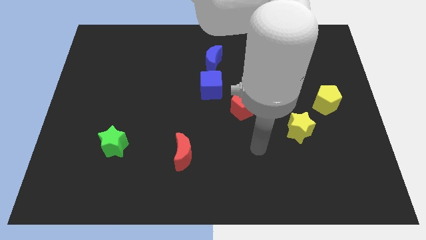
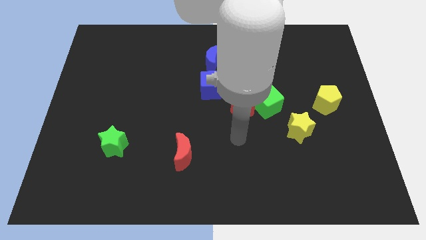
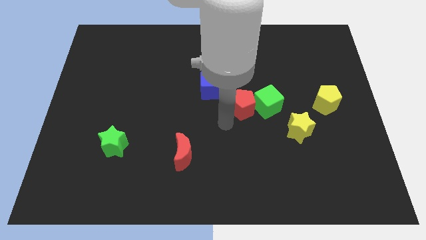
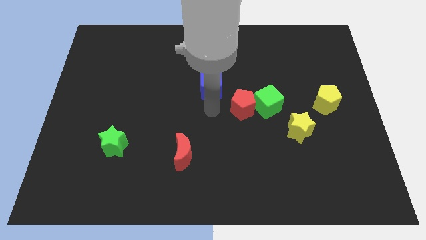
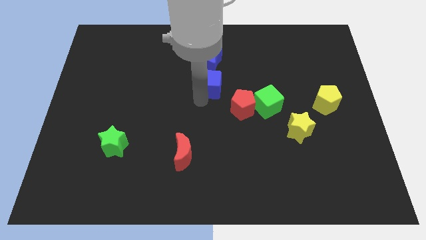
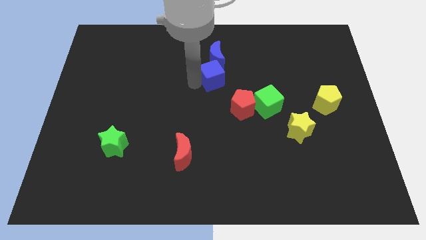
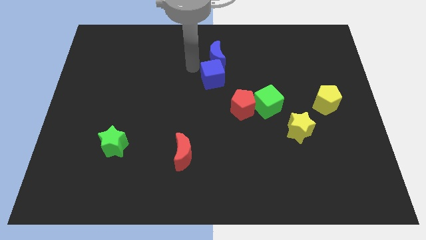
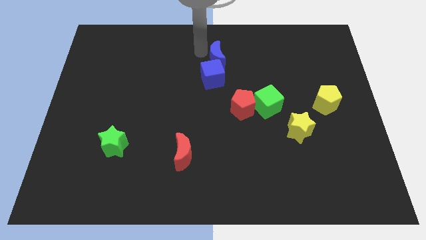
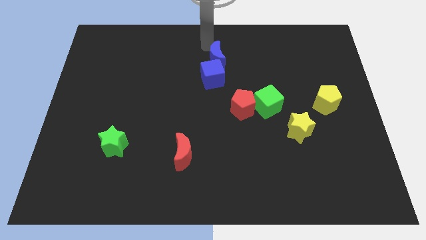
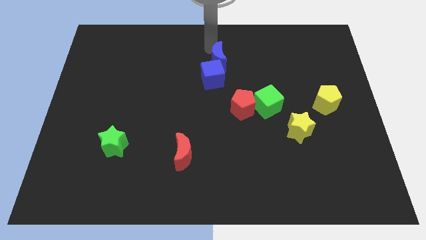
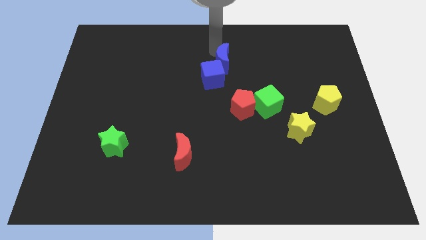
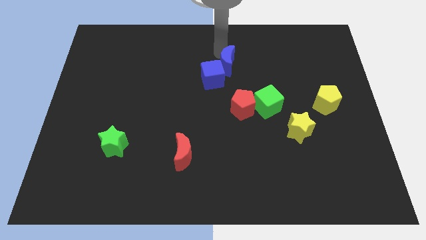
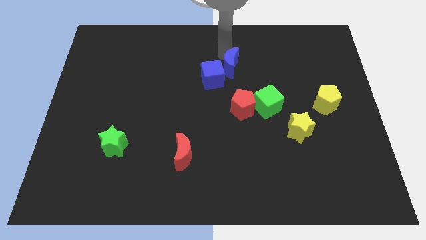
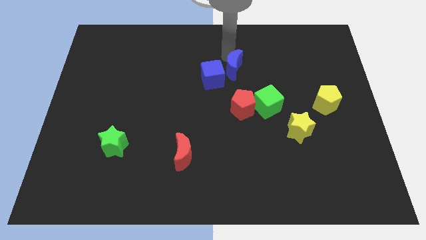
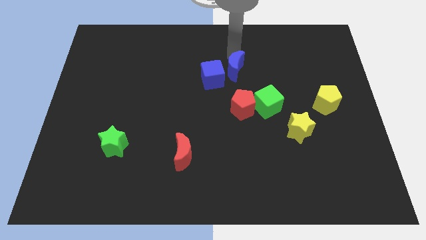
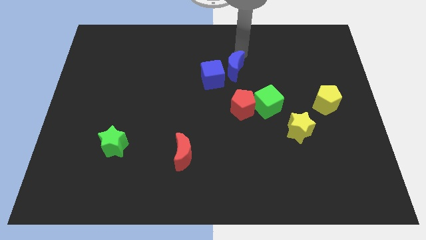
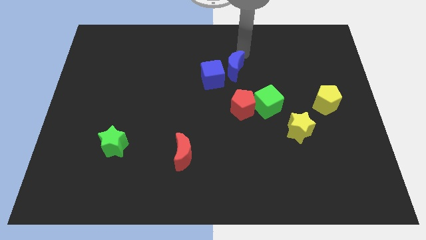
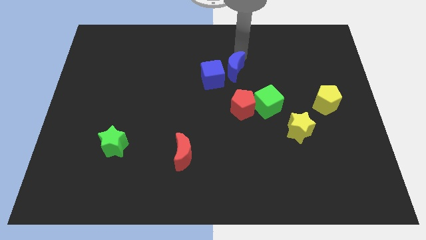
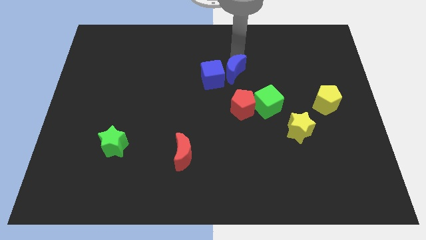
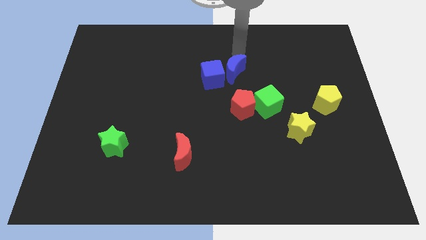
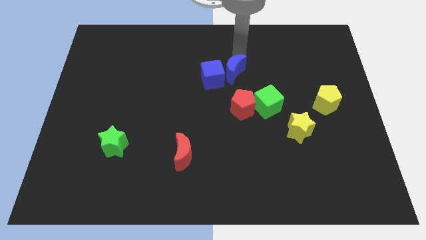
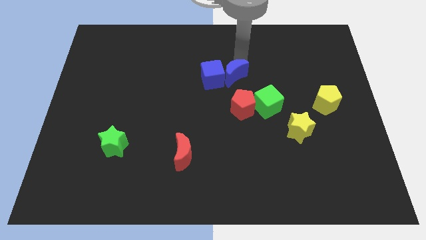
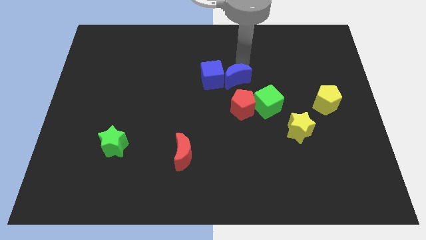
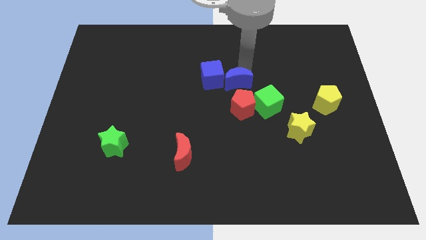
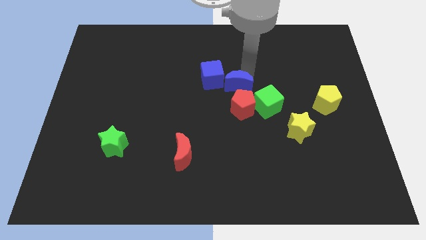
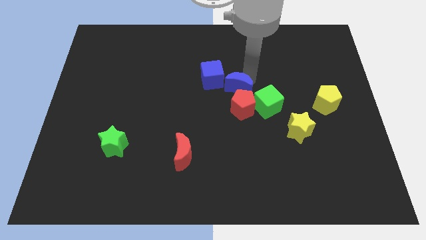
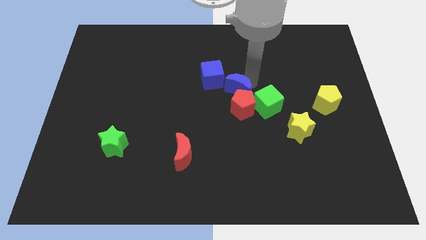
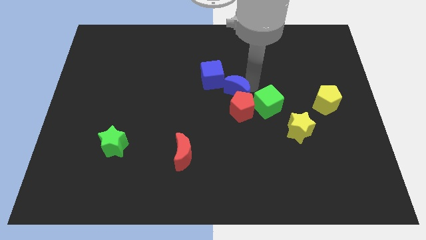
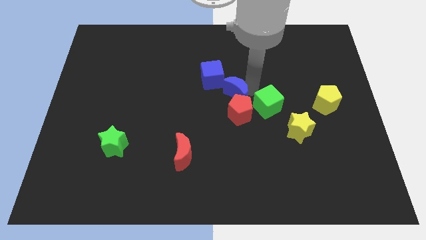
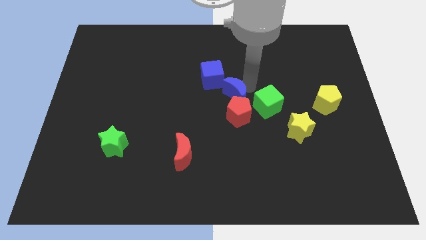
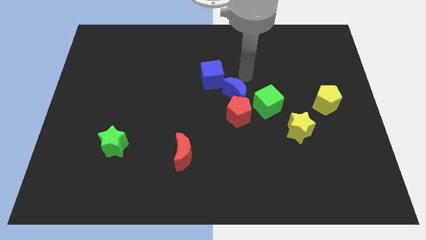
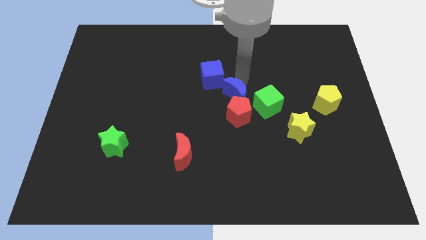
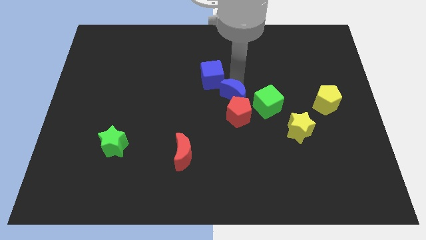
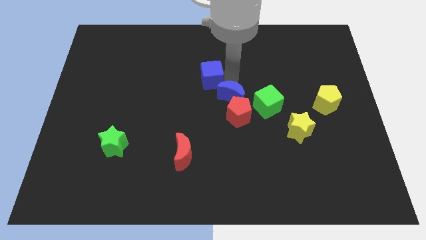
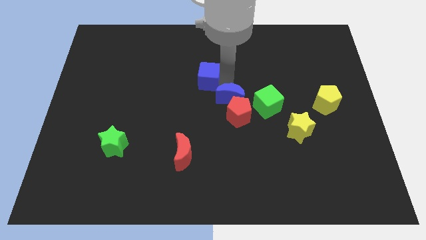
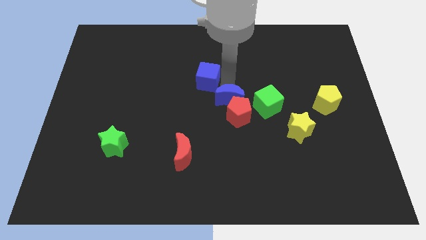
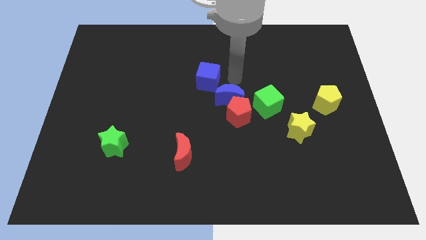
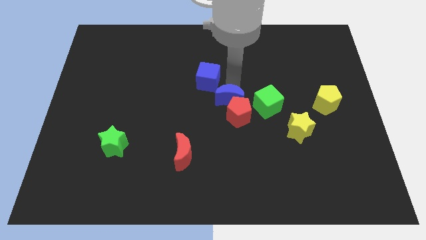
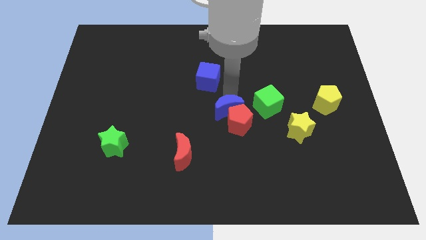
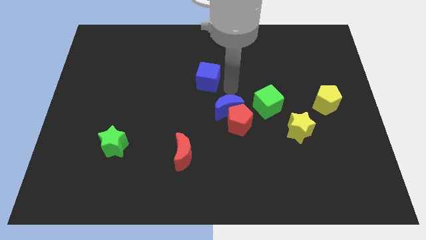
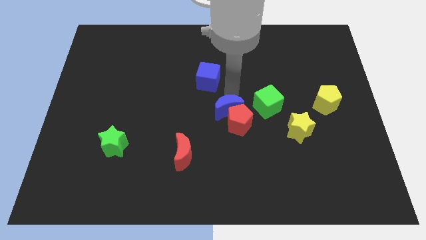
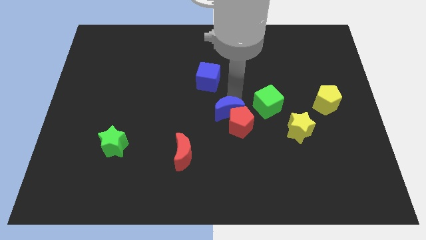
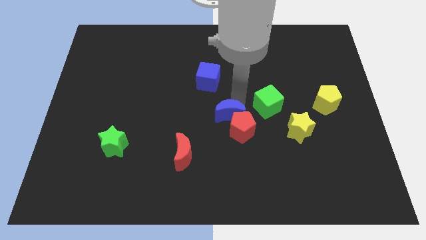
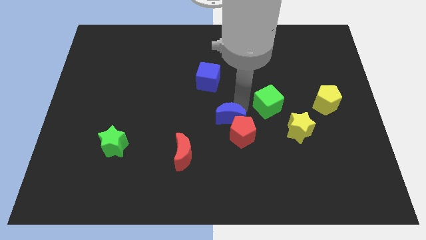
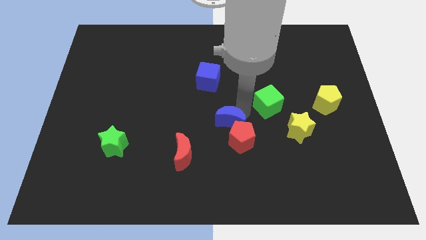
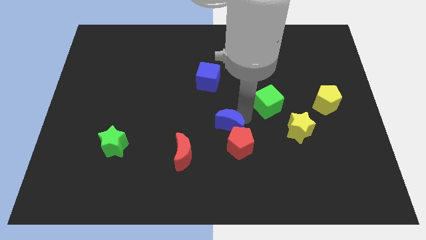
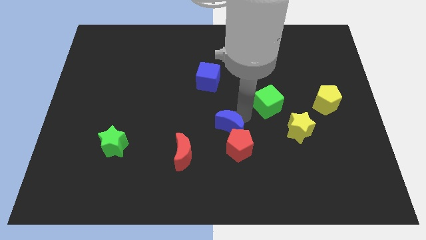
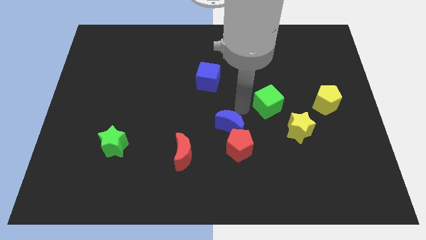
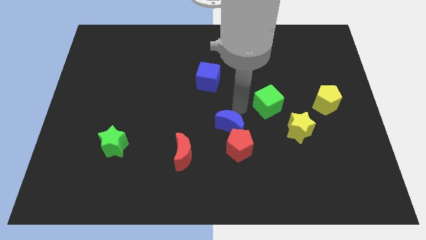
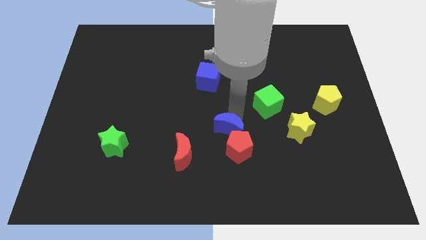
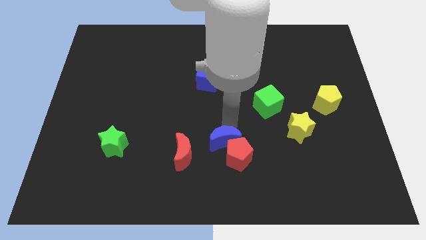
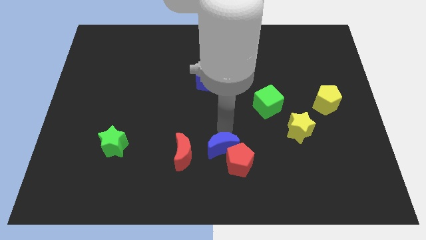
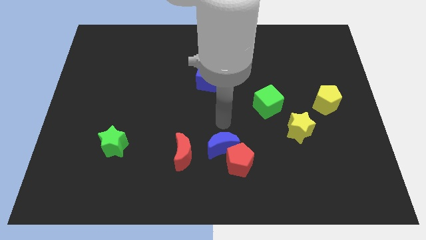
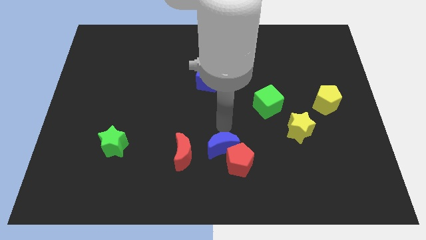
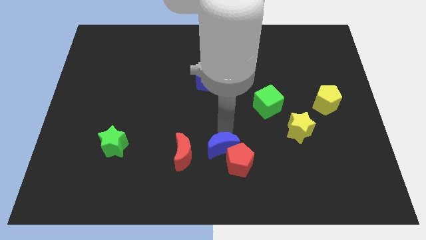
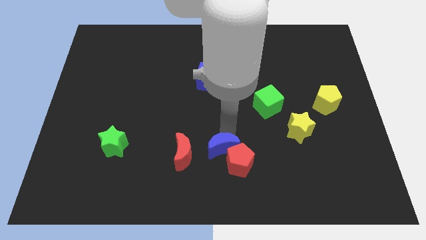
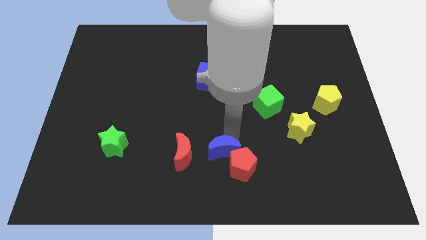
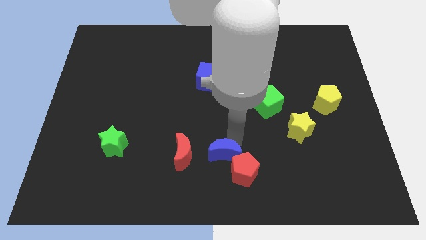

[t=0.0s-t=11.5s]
slide the blue moon to the bottom side
